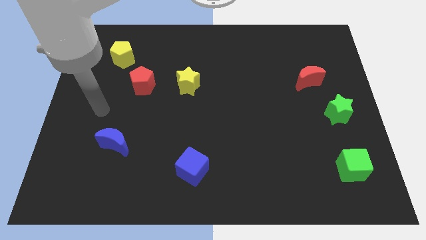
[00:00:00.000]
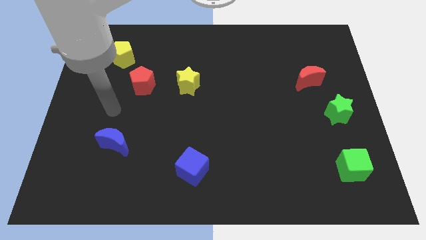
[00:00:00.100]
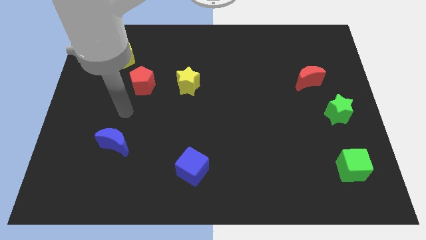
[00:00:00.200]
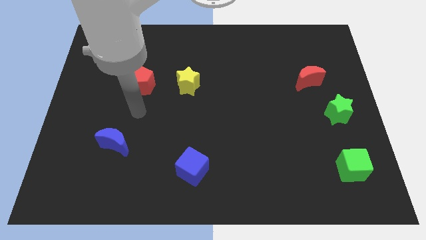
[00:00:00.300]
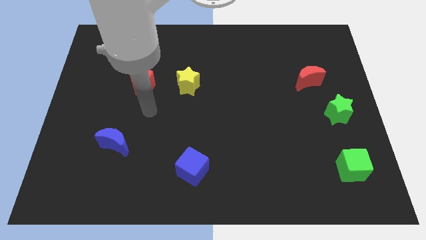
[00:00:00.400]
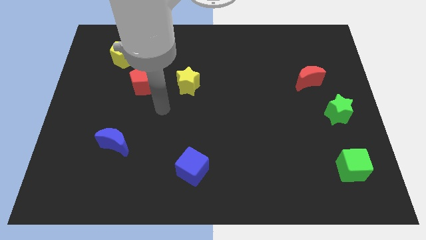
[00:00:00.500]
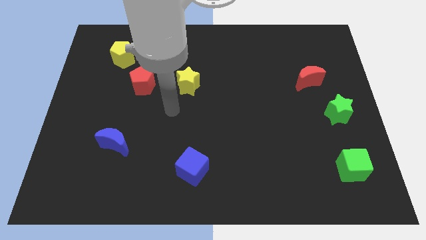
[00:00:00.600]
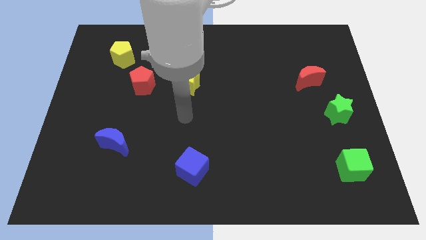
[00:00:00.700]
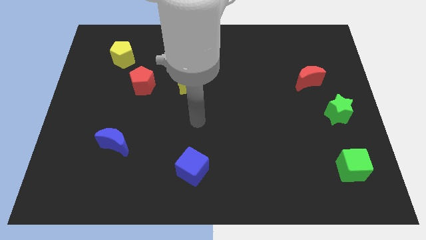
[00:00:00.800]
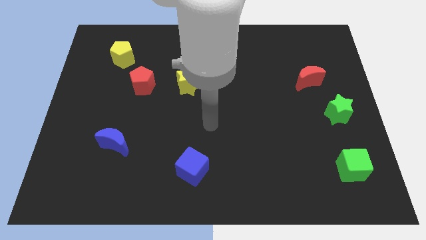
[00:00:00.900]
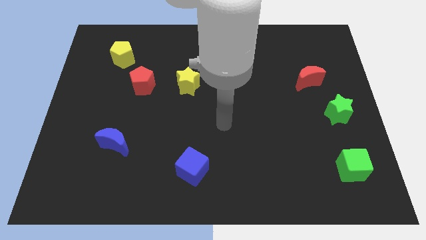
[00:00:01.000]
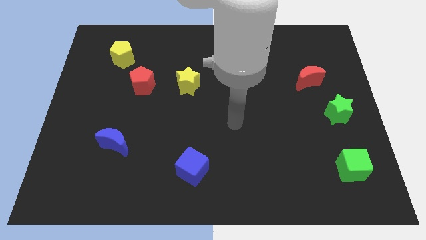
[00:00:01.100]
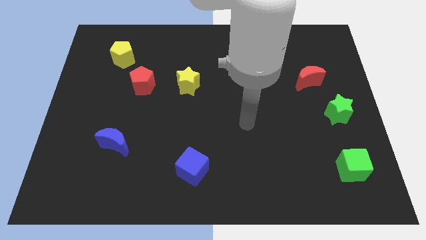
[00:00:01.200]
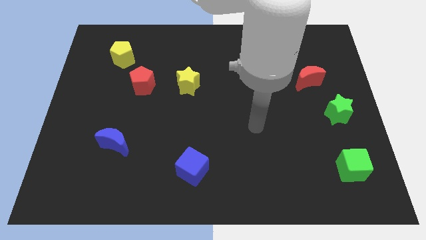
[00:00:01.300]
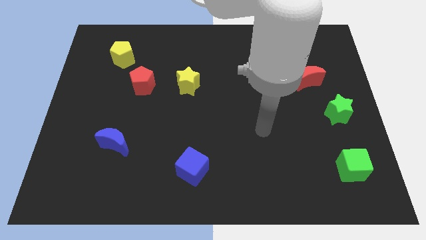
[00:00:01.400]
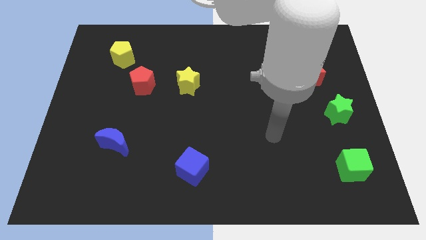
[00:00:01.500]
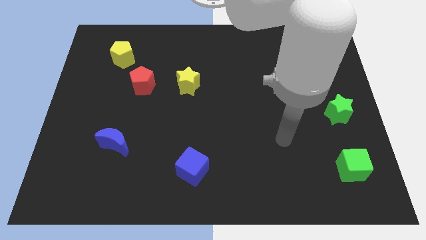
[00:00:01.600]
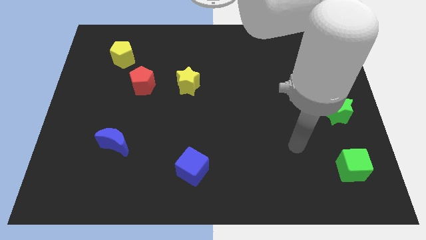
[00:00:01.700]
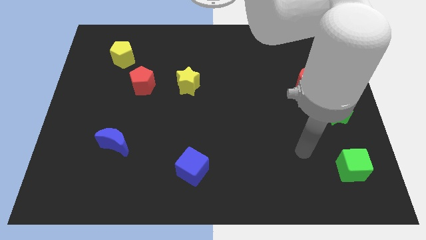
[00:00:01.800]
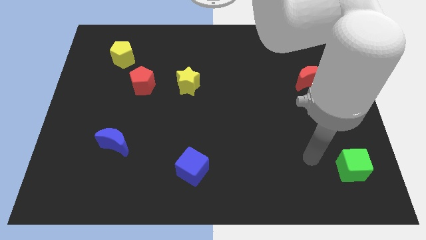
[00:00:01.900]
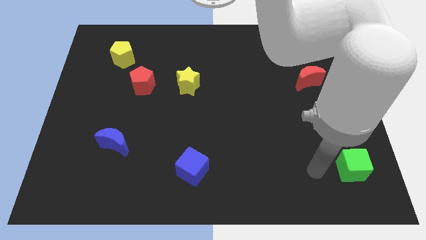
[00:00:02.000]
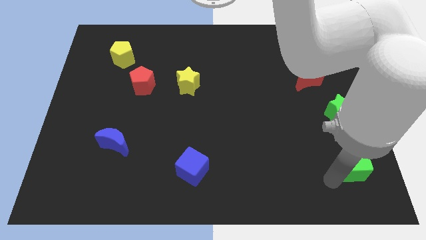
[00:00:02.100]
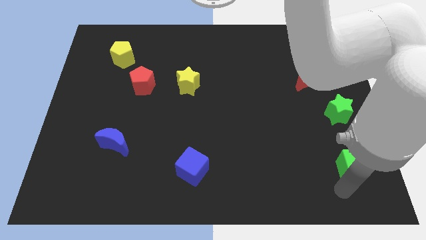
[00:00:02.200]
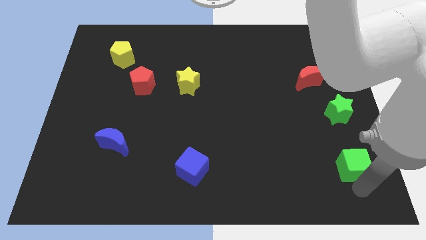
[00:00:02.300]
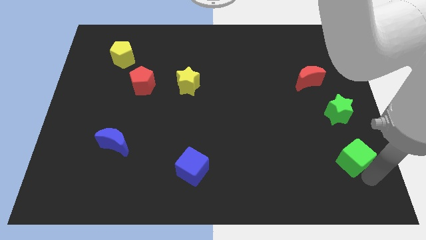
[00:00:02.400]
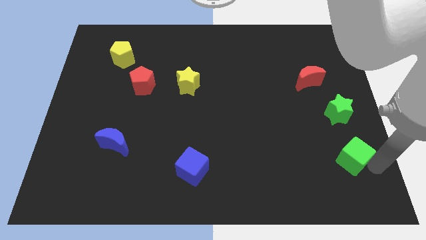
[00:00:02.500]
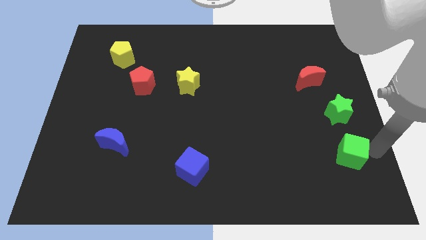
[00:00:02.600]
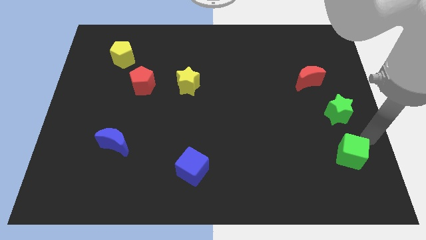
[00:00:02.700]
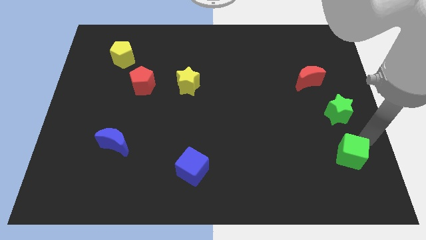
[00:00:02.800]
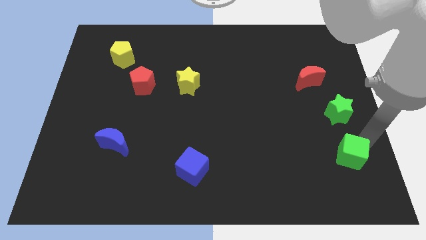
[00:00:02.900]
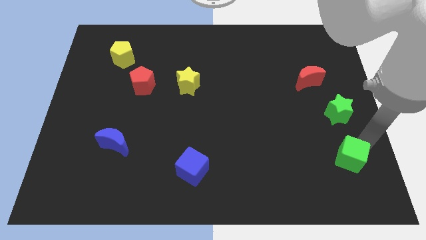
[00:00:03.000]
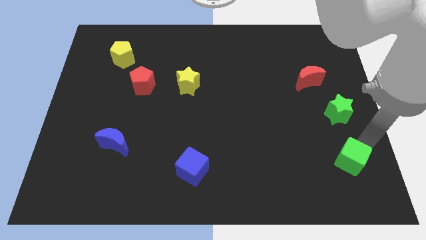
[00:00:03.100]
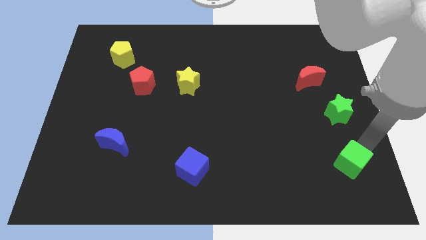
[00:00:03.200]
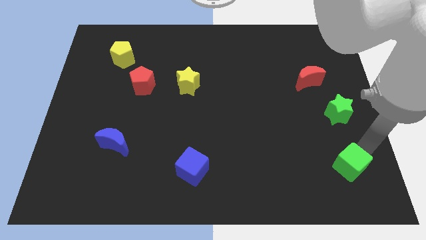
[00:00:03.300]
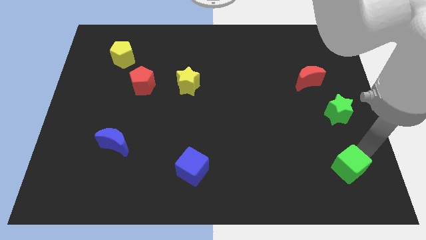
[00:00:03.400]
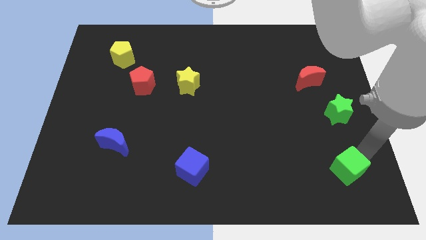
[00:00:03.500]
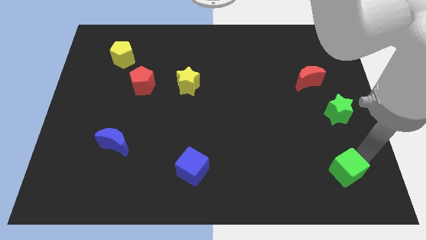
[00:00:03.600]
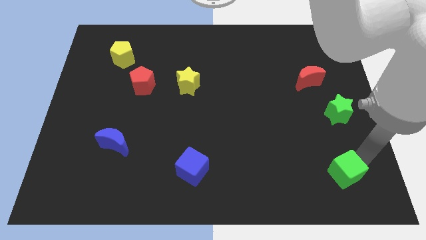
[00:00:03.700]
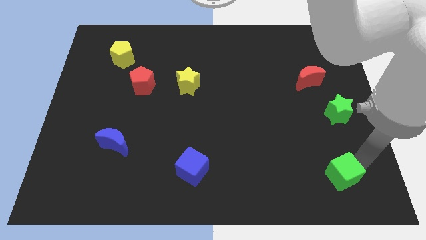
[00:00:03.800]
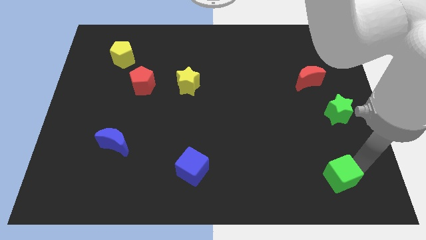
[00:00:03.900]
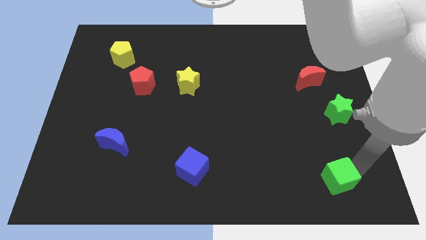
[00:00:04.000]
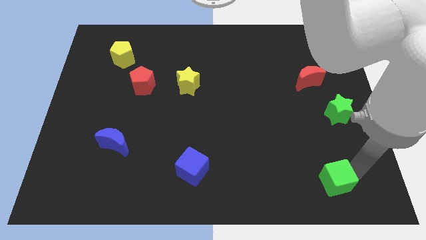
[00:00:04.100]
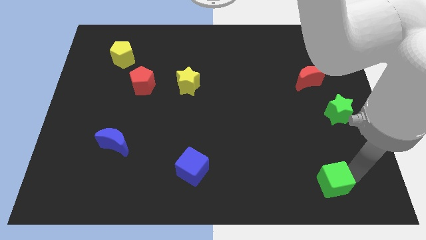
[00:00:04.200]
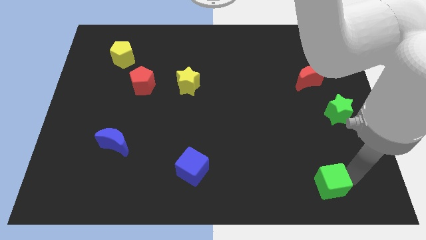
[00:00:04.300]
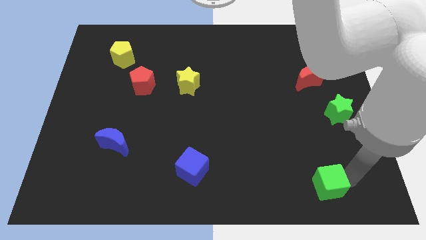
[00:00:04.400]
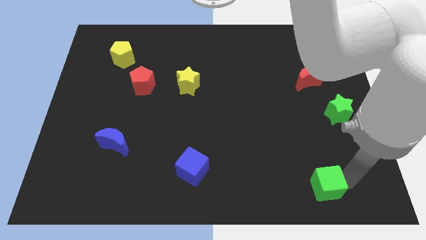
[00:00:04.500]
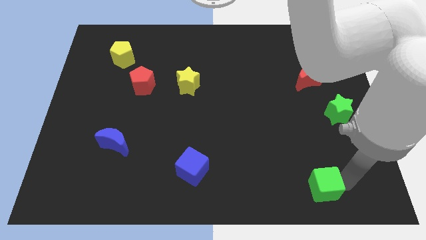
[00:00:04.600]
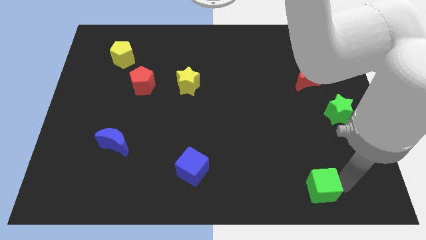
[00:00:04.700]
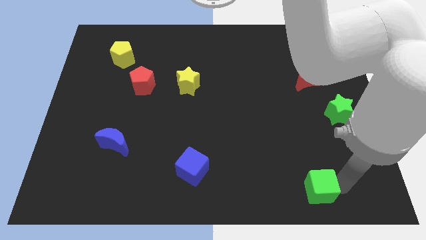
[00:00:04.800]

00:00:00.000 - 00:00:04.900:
move the green cube somewhat left

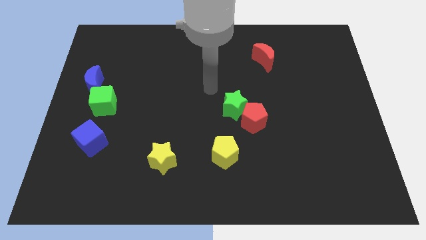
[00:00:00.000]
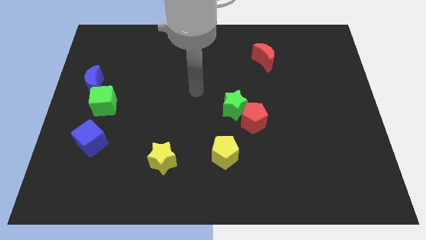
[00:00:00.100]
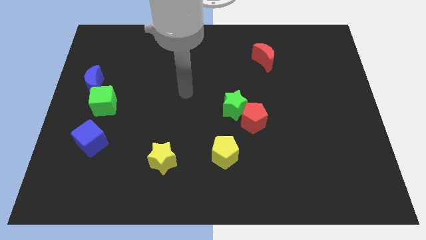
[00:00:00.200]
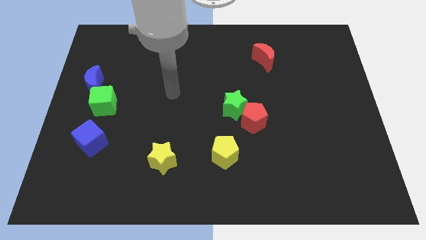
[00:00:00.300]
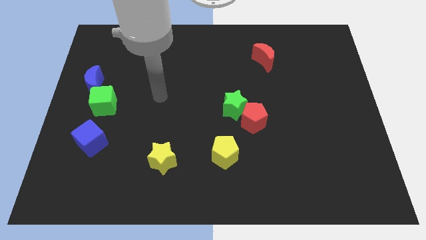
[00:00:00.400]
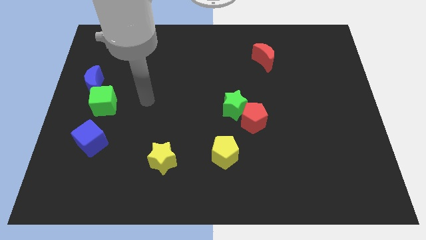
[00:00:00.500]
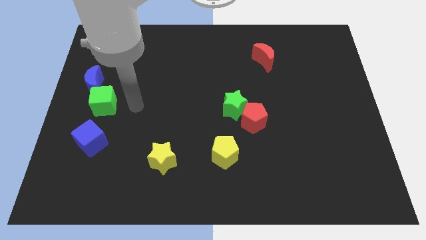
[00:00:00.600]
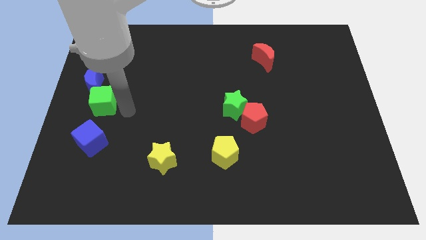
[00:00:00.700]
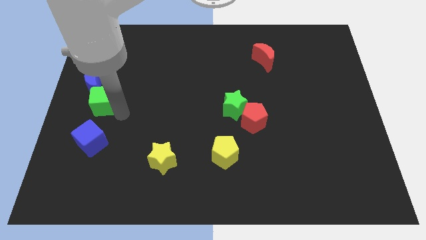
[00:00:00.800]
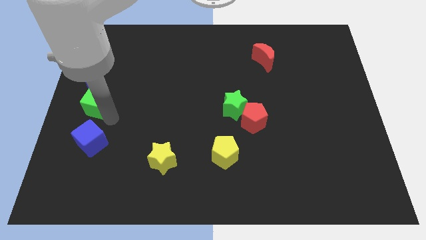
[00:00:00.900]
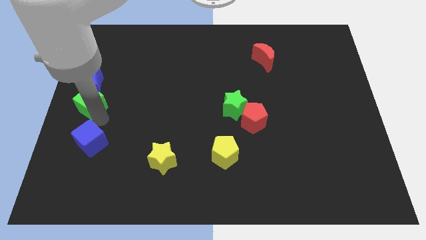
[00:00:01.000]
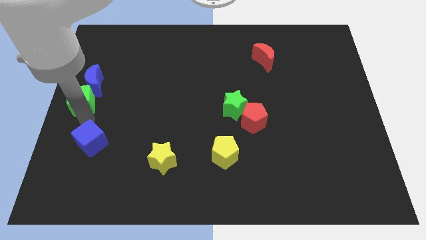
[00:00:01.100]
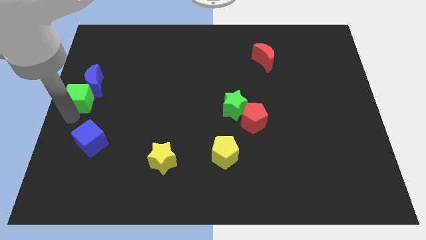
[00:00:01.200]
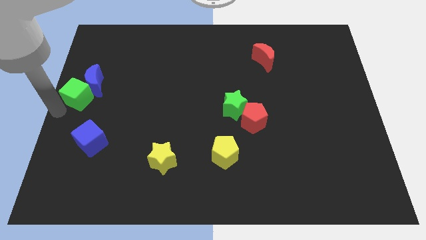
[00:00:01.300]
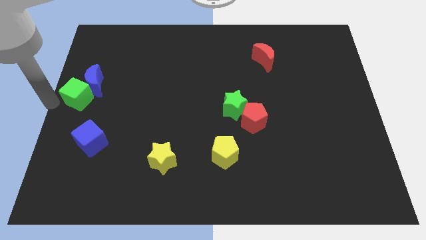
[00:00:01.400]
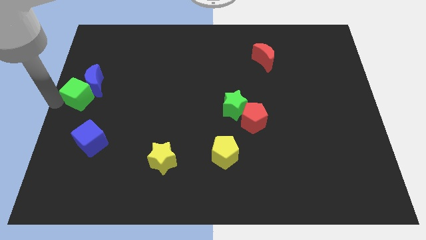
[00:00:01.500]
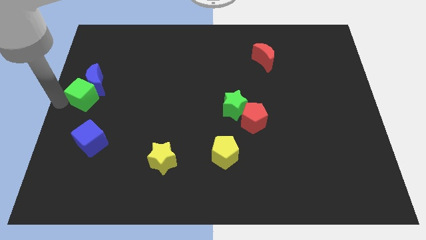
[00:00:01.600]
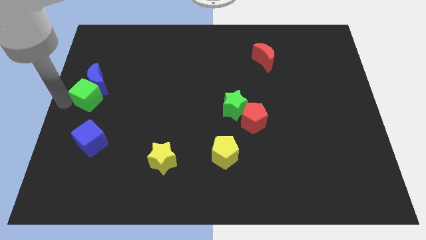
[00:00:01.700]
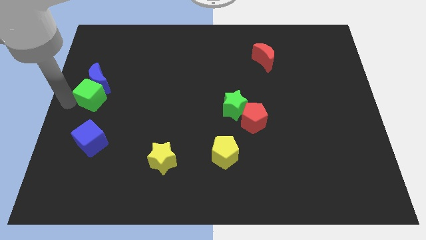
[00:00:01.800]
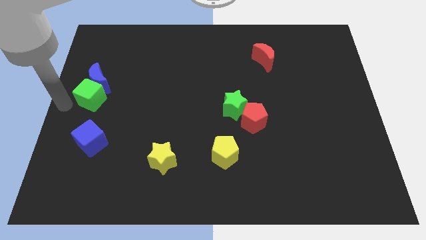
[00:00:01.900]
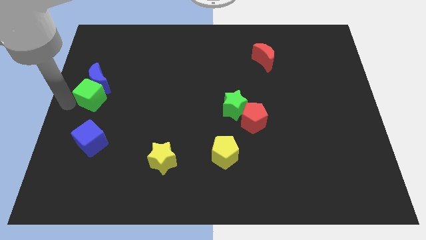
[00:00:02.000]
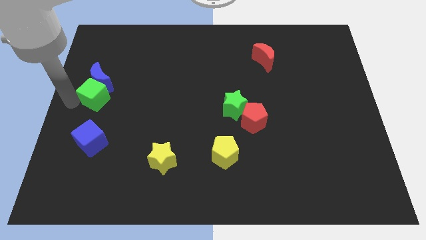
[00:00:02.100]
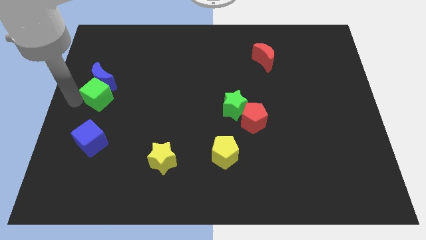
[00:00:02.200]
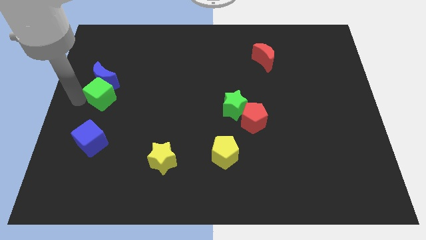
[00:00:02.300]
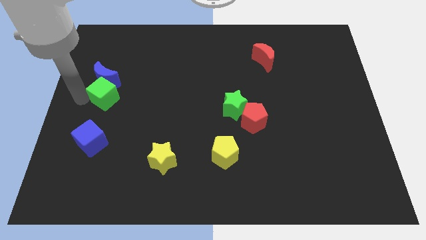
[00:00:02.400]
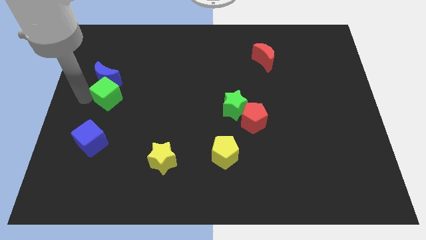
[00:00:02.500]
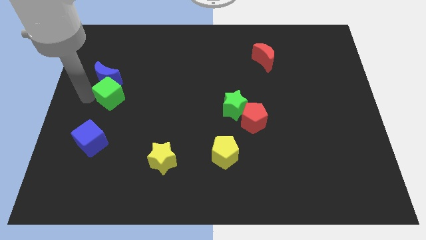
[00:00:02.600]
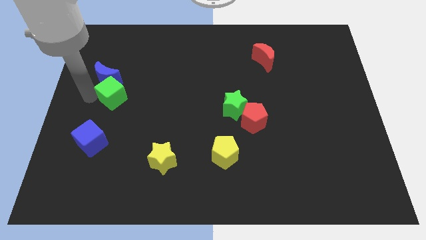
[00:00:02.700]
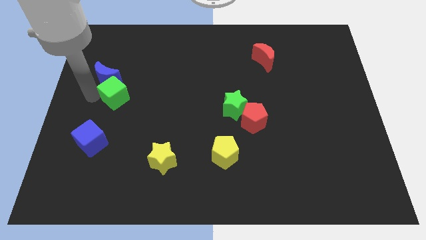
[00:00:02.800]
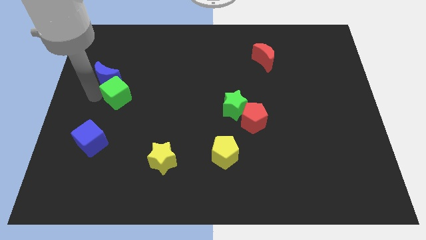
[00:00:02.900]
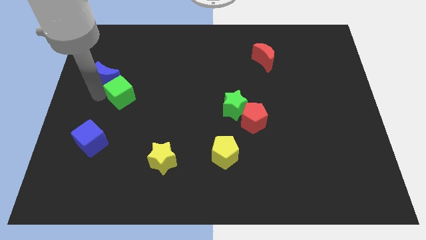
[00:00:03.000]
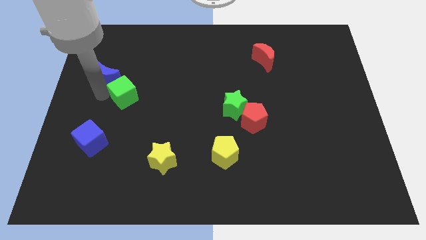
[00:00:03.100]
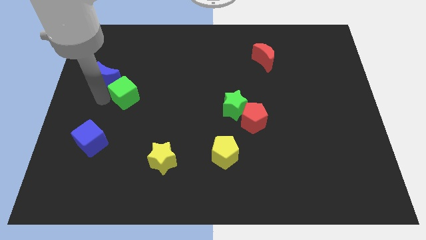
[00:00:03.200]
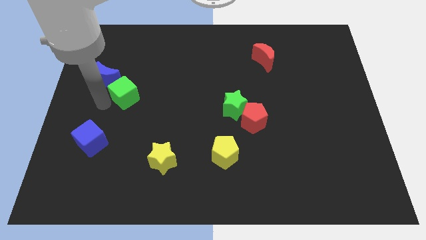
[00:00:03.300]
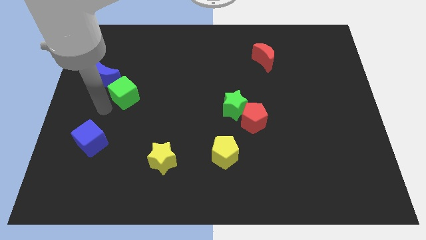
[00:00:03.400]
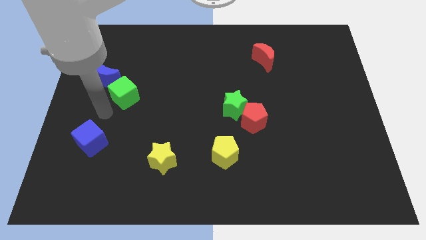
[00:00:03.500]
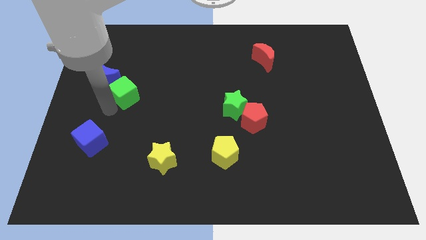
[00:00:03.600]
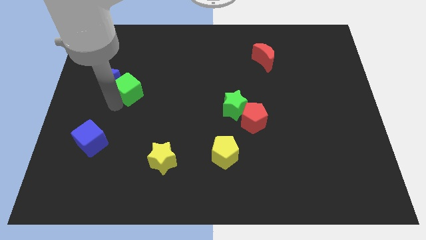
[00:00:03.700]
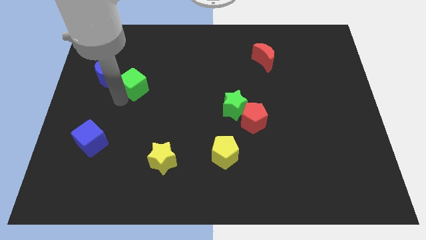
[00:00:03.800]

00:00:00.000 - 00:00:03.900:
slightly move the green cube upwards and then to the right
